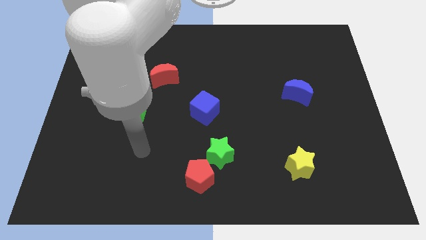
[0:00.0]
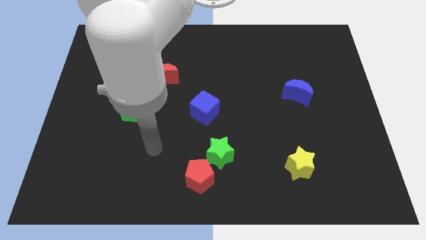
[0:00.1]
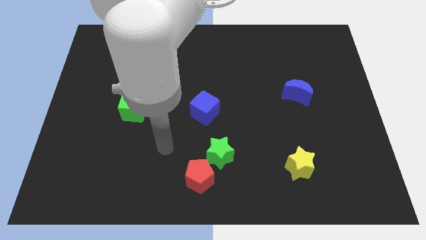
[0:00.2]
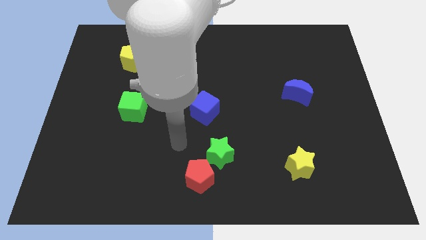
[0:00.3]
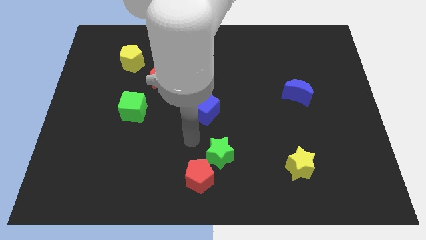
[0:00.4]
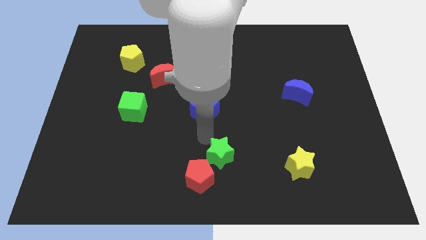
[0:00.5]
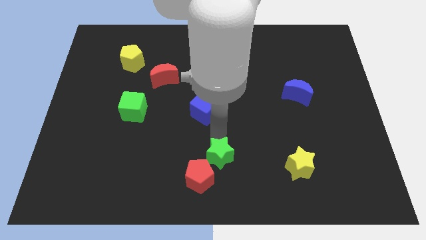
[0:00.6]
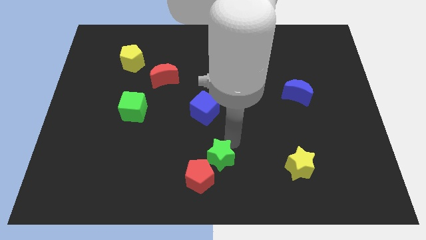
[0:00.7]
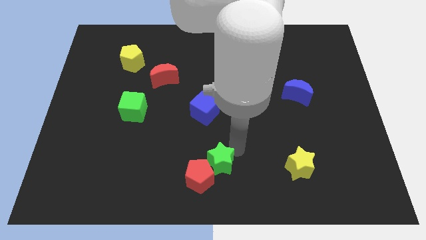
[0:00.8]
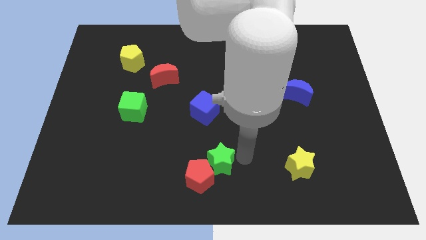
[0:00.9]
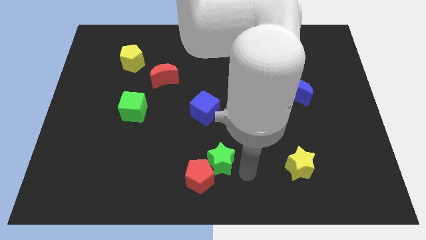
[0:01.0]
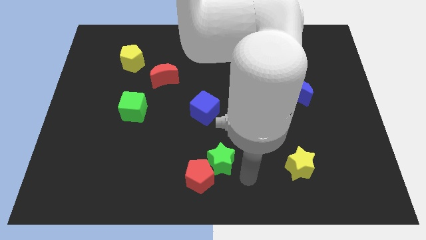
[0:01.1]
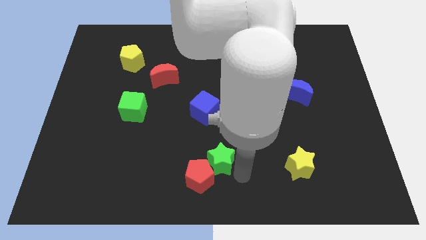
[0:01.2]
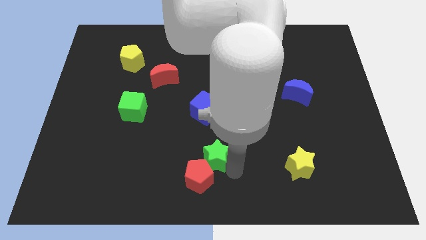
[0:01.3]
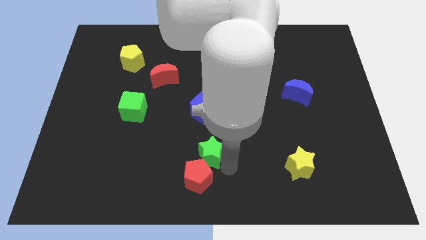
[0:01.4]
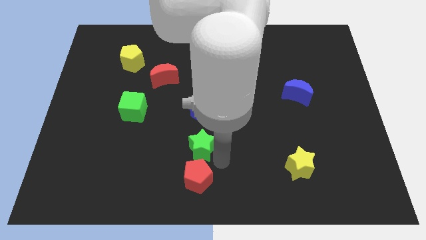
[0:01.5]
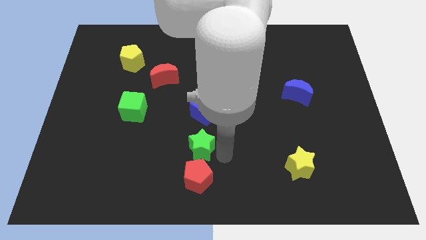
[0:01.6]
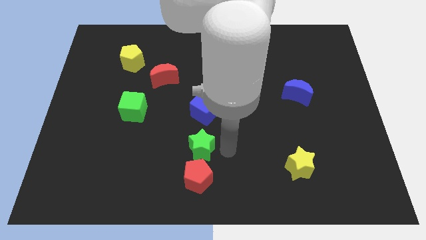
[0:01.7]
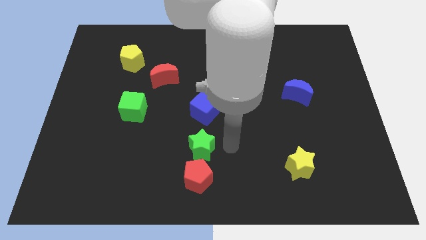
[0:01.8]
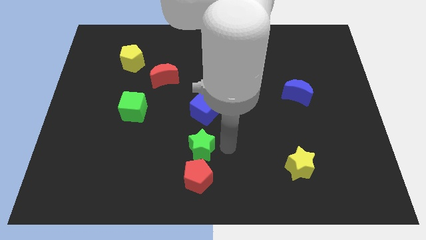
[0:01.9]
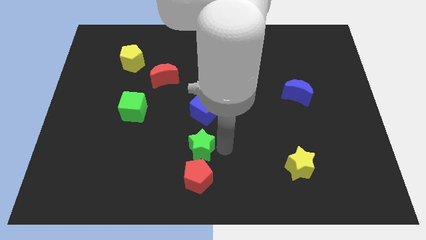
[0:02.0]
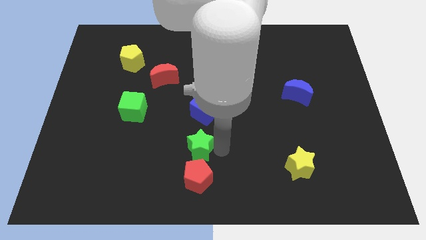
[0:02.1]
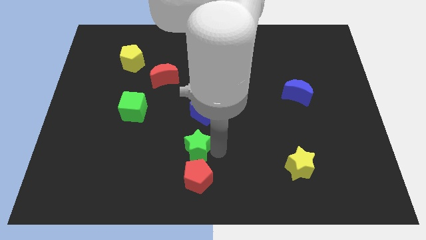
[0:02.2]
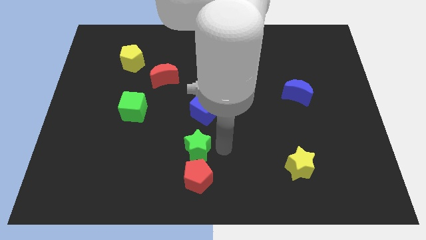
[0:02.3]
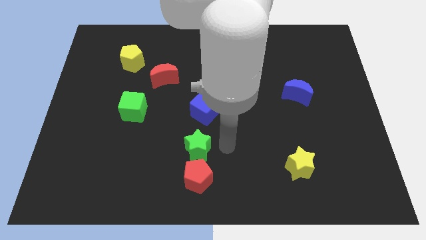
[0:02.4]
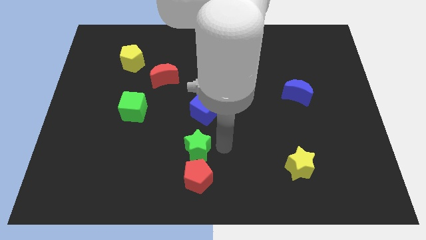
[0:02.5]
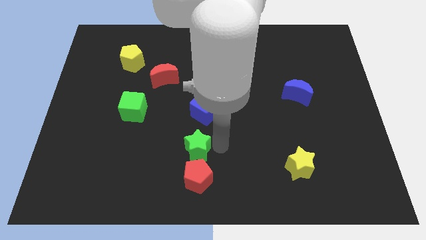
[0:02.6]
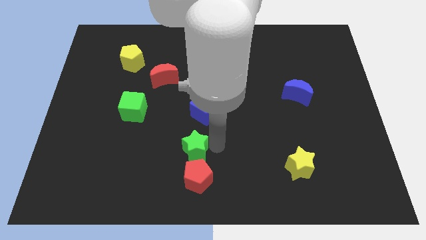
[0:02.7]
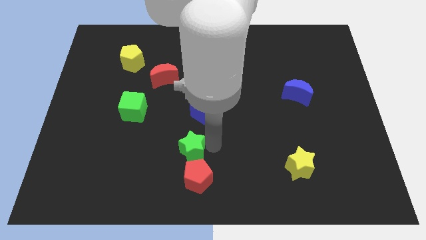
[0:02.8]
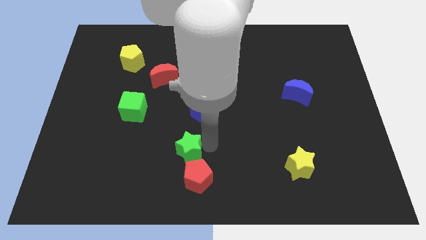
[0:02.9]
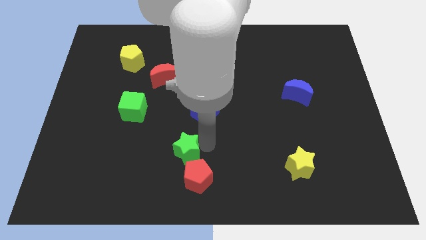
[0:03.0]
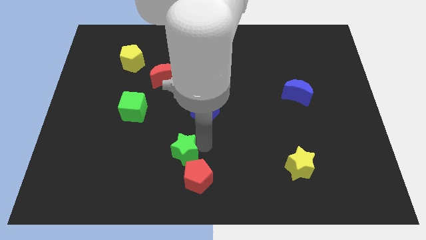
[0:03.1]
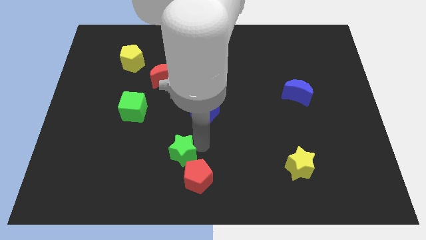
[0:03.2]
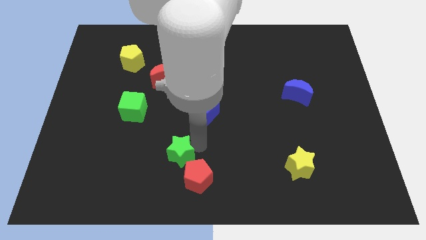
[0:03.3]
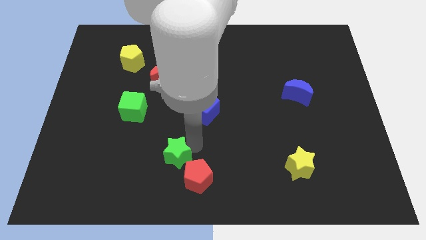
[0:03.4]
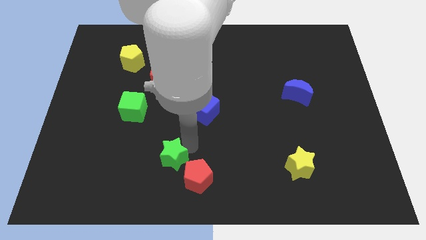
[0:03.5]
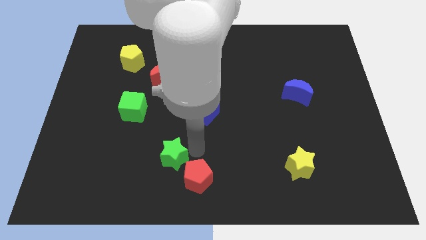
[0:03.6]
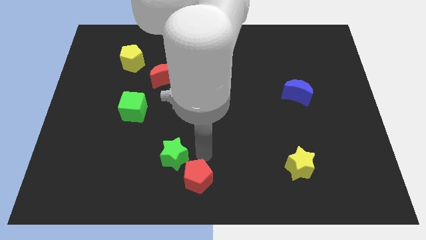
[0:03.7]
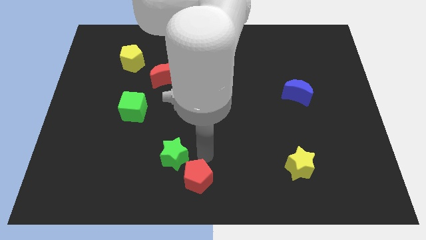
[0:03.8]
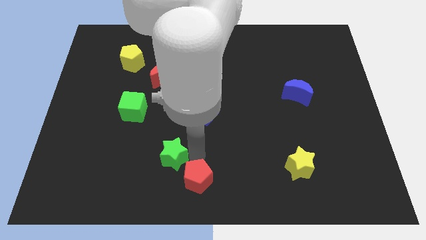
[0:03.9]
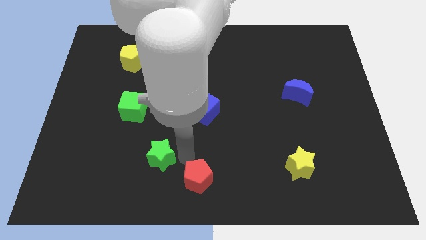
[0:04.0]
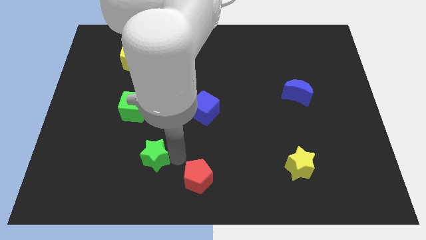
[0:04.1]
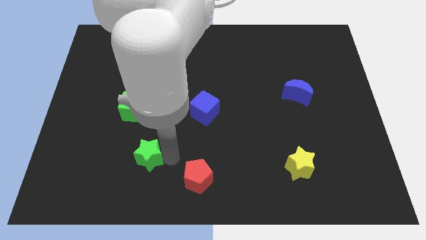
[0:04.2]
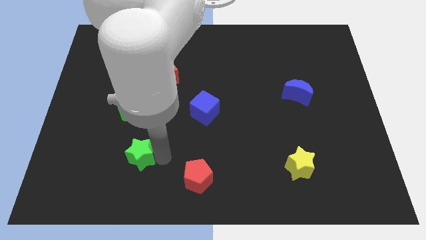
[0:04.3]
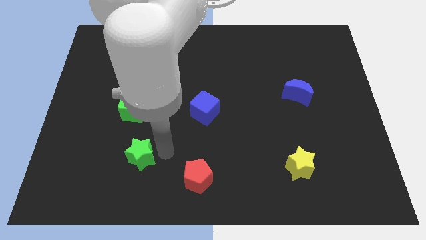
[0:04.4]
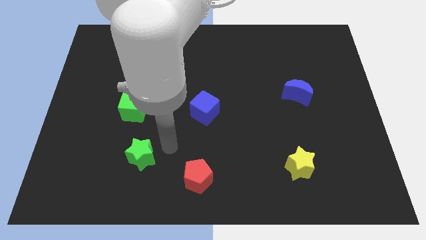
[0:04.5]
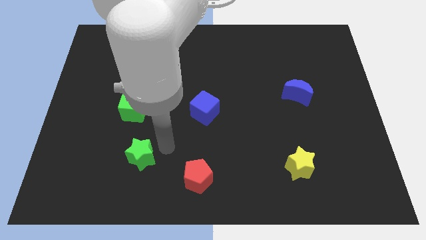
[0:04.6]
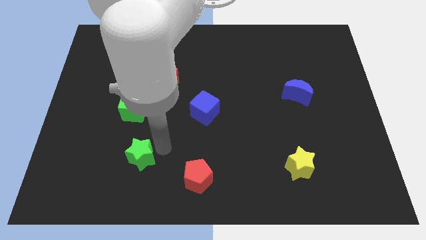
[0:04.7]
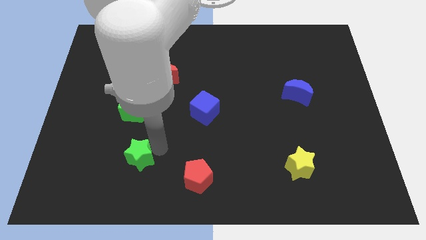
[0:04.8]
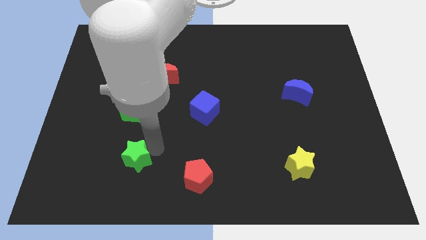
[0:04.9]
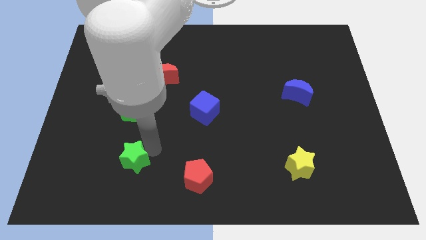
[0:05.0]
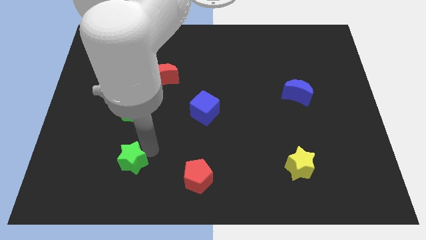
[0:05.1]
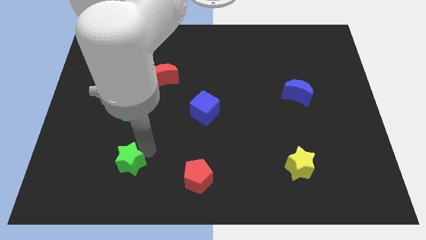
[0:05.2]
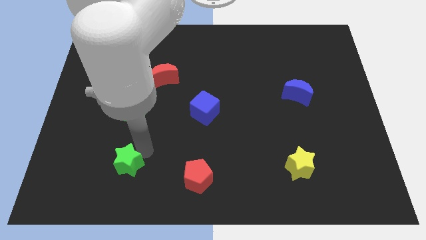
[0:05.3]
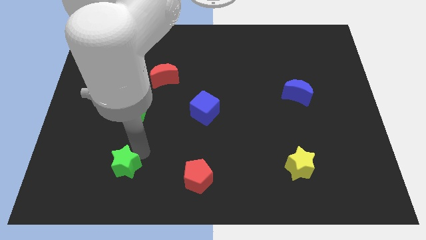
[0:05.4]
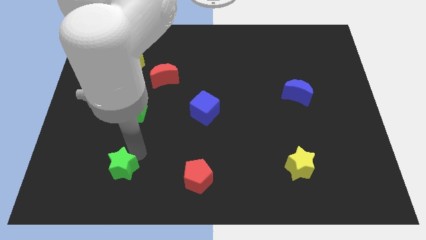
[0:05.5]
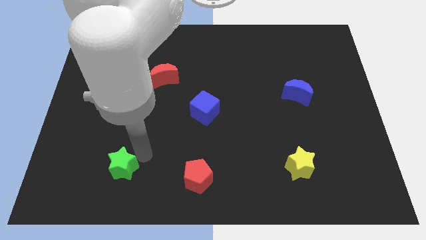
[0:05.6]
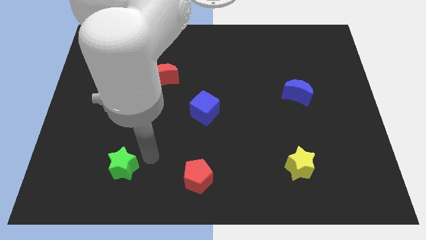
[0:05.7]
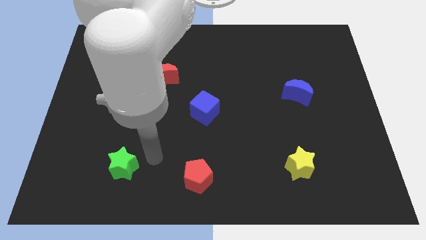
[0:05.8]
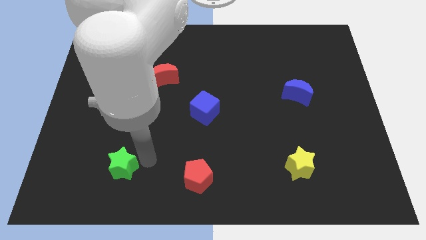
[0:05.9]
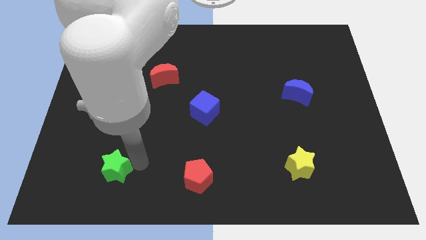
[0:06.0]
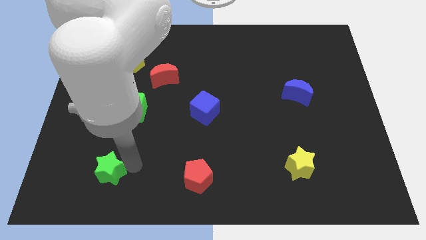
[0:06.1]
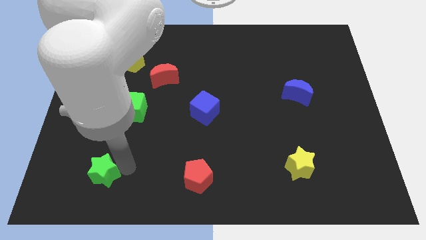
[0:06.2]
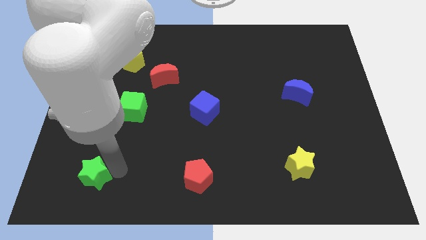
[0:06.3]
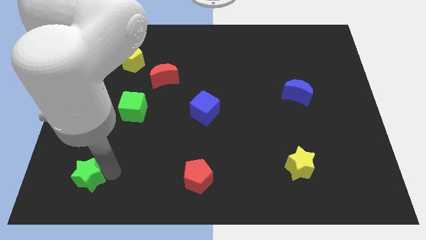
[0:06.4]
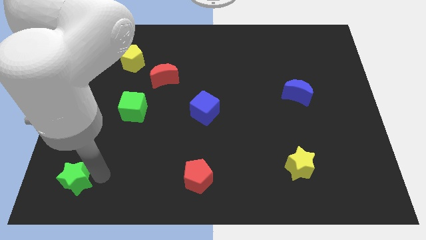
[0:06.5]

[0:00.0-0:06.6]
push the green star to the bottom left
